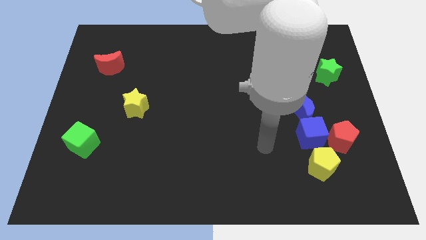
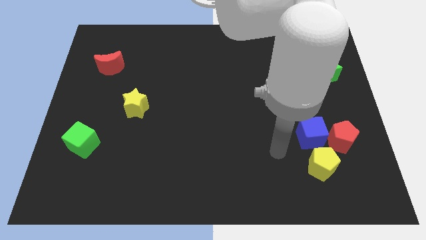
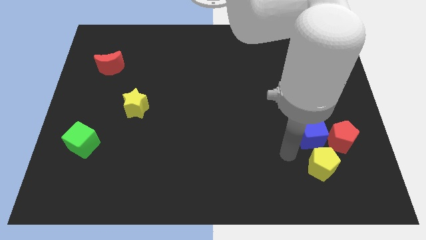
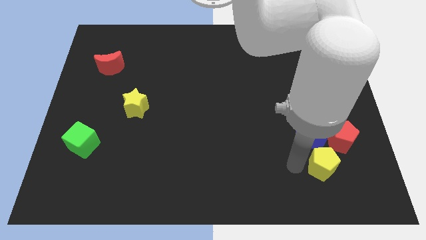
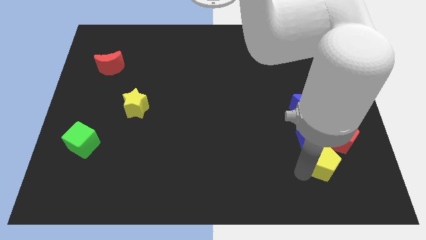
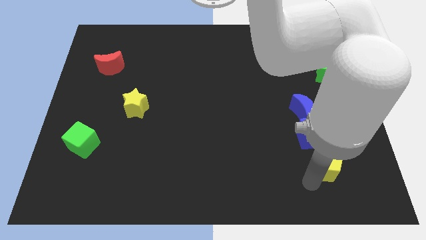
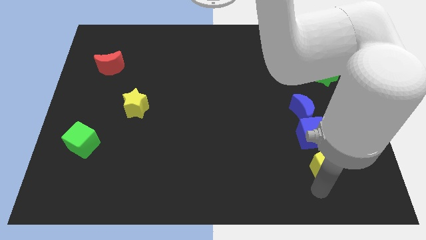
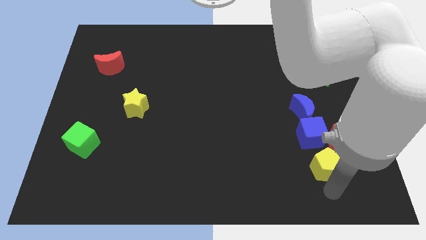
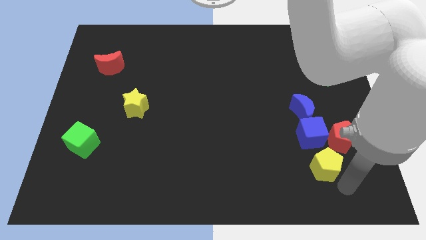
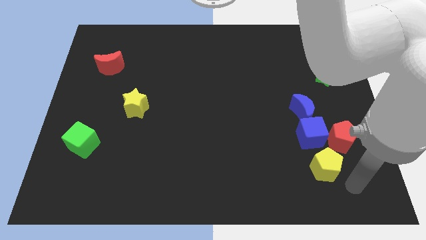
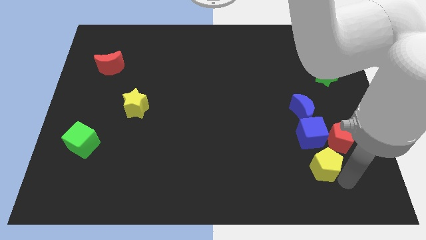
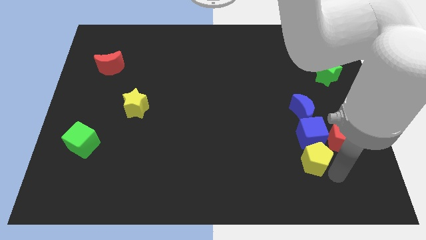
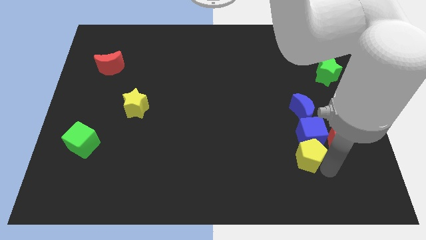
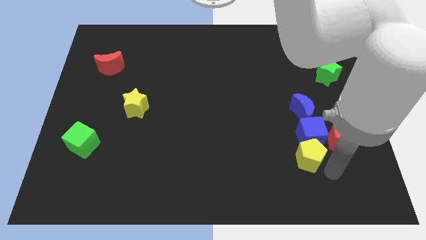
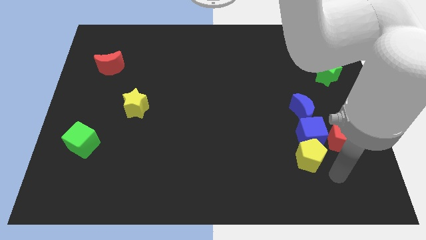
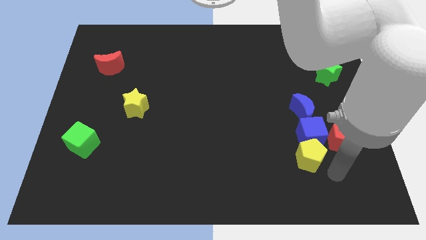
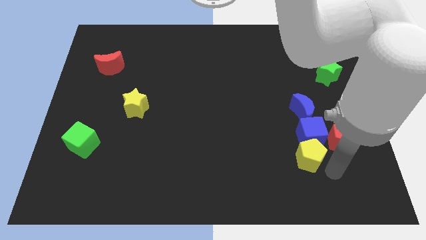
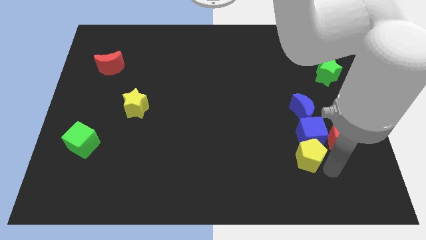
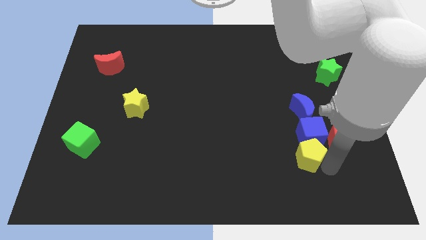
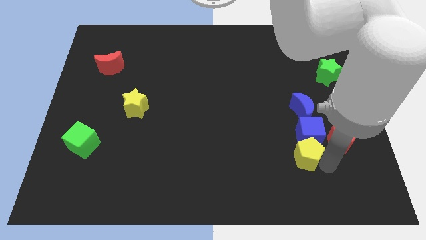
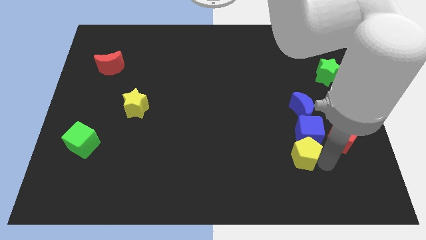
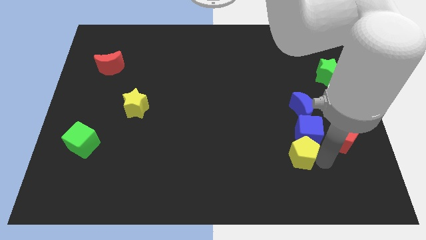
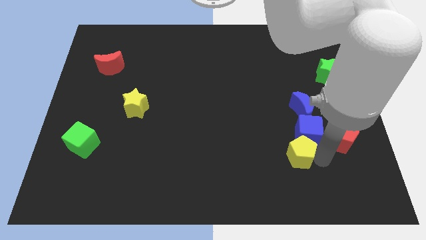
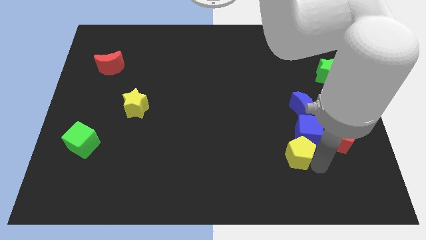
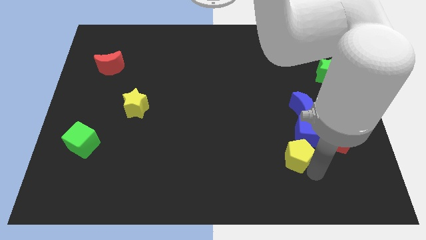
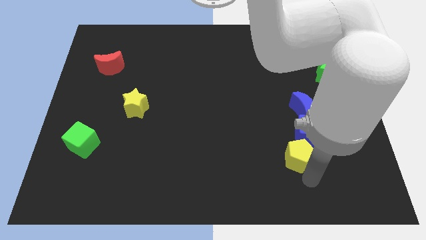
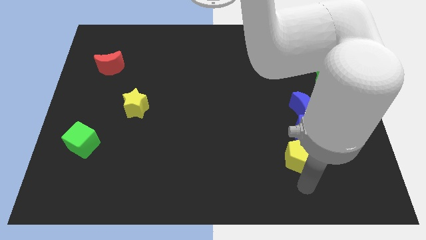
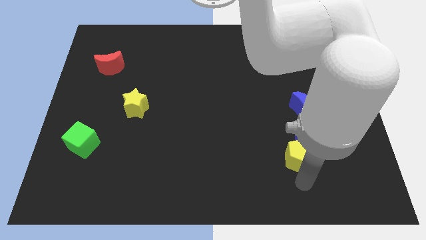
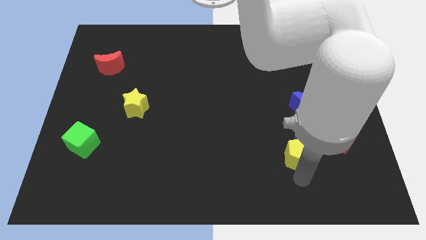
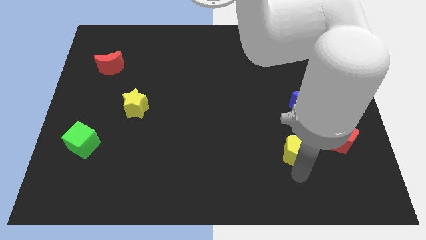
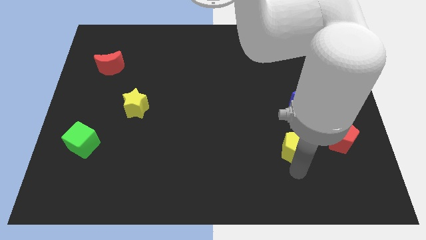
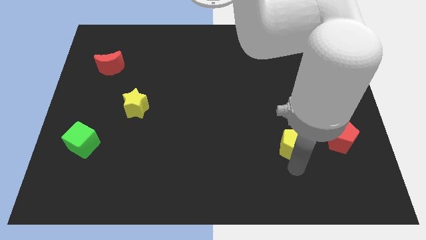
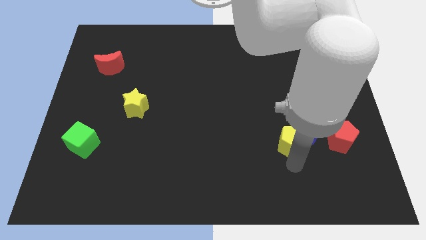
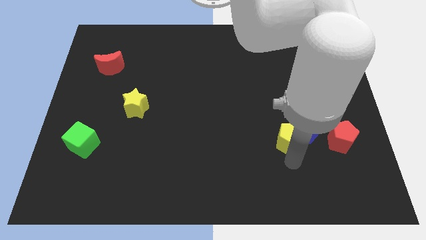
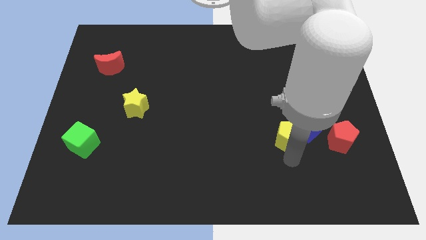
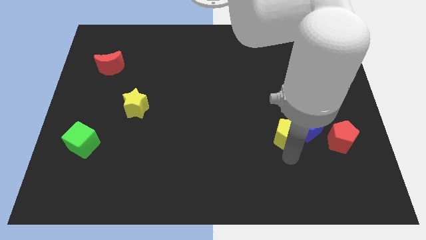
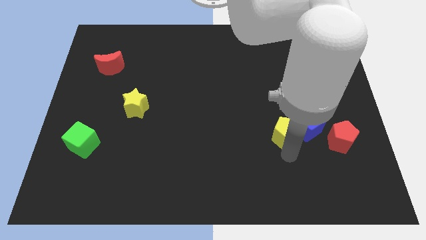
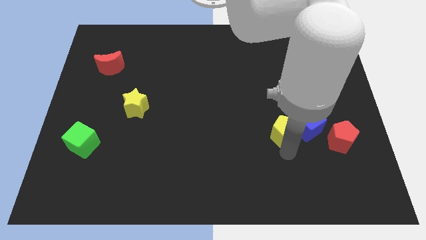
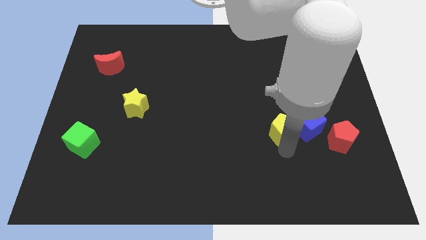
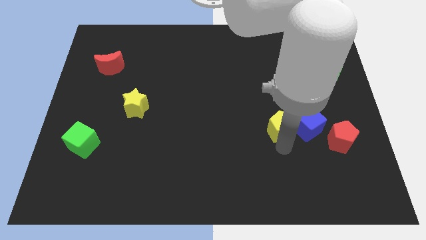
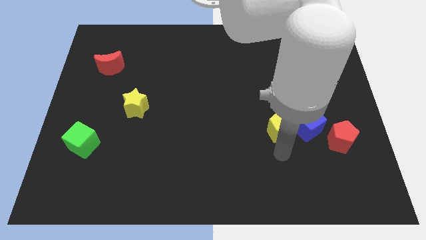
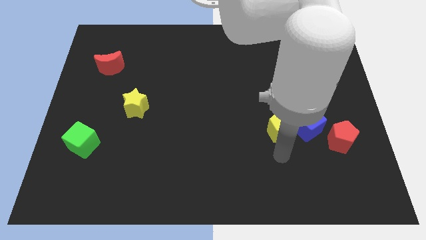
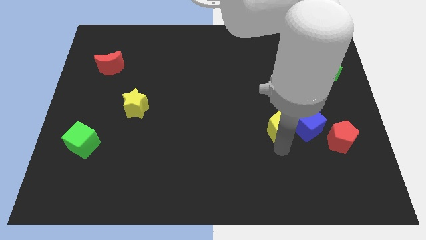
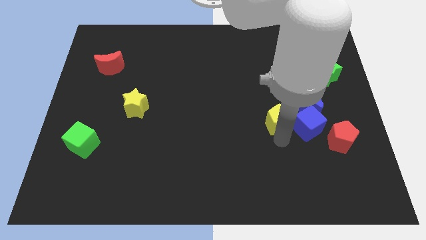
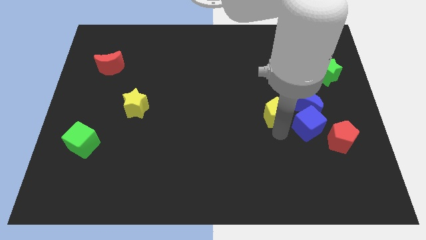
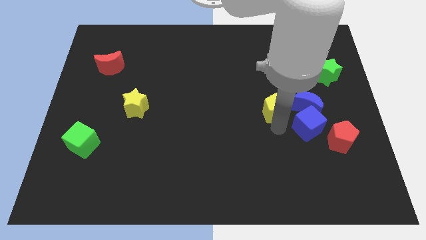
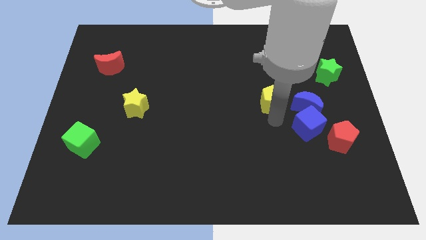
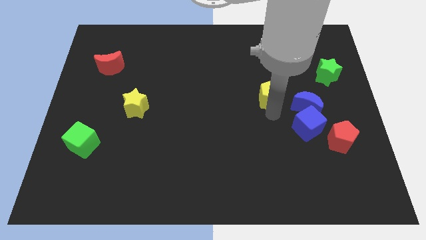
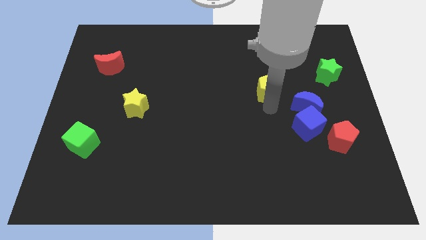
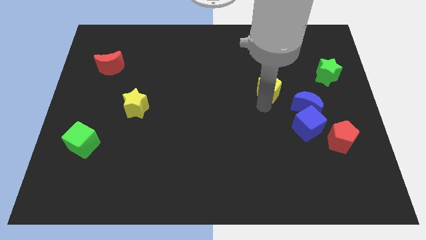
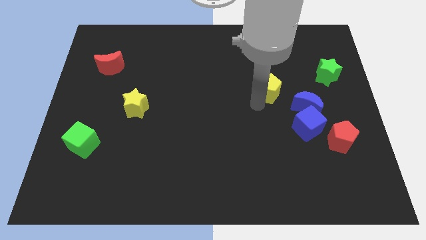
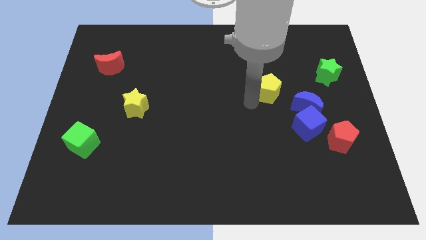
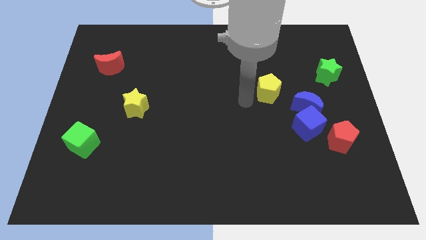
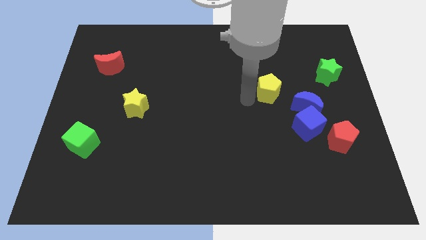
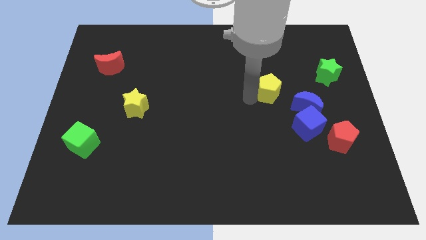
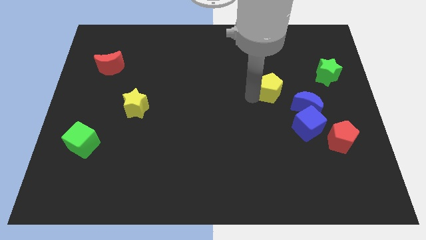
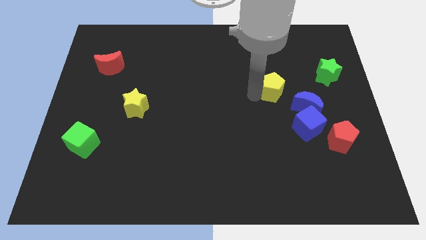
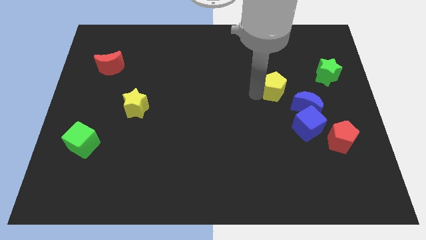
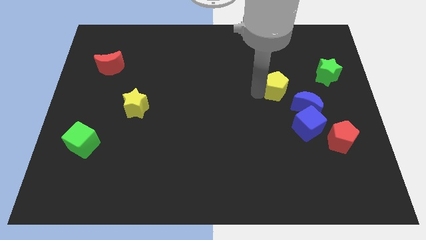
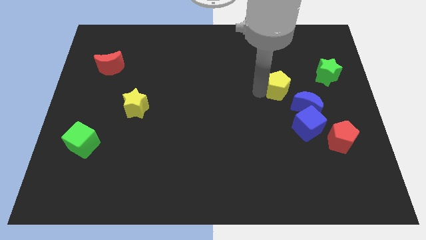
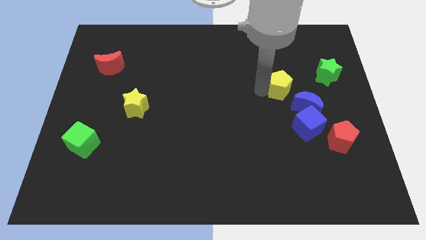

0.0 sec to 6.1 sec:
put the yellow pentagon to the left of the green star

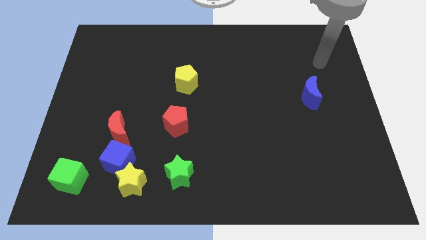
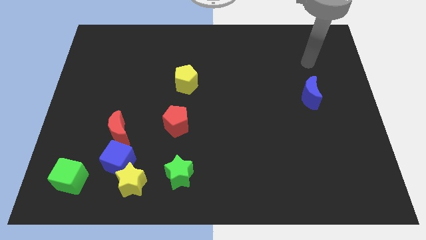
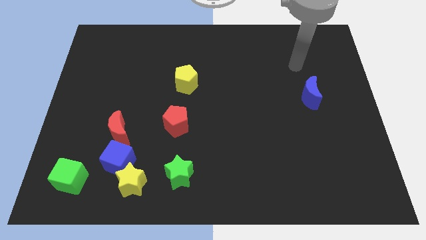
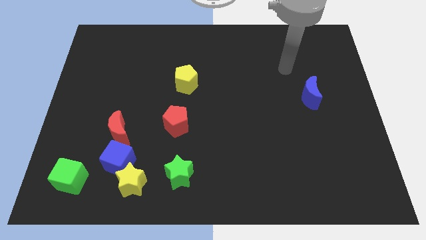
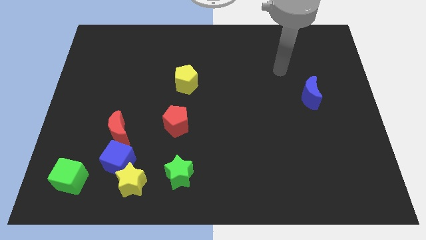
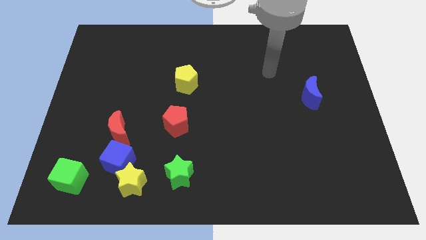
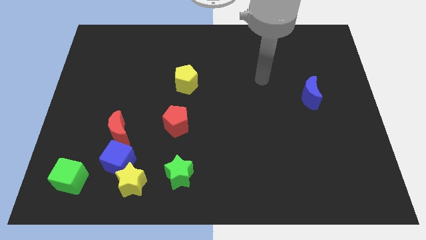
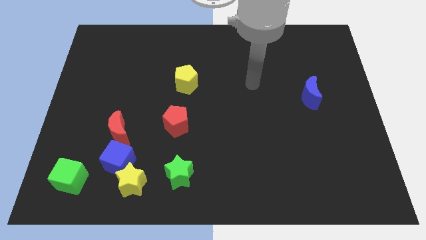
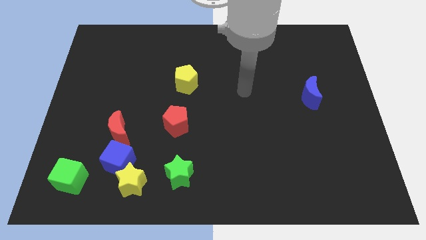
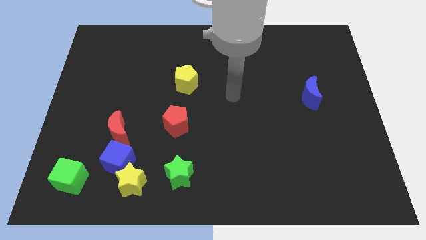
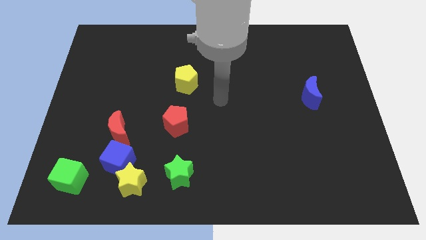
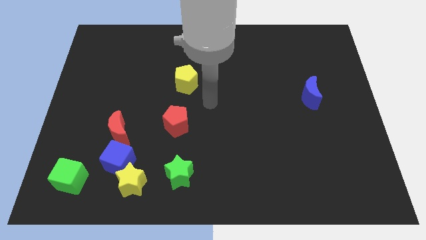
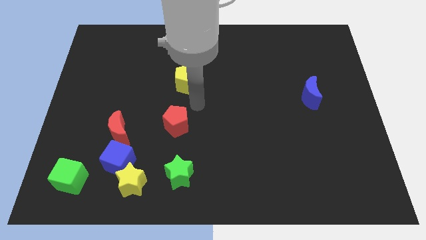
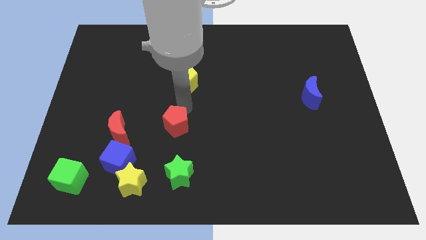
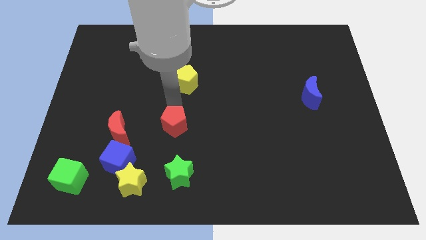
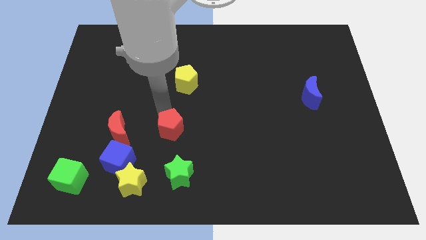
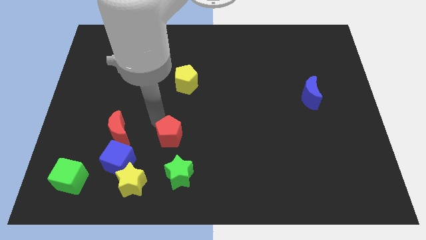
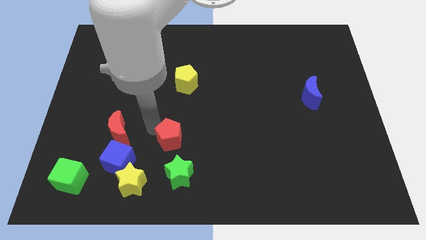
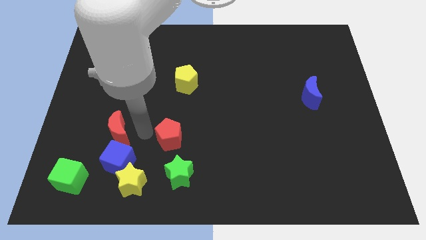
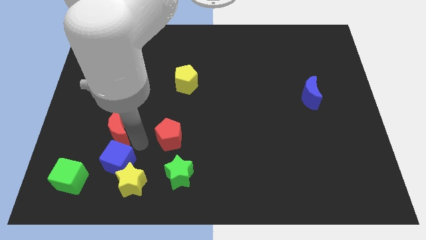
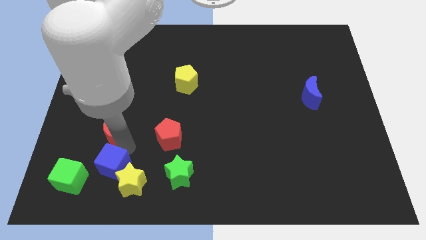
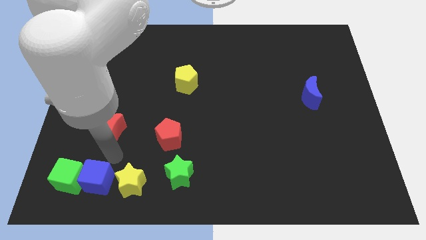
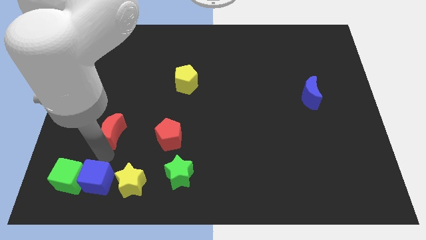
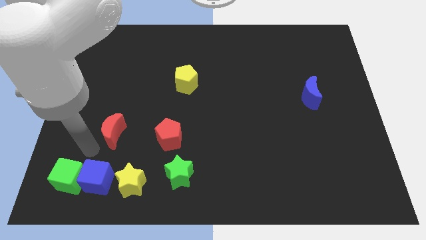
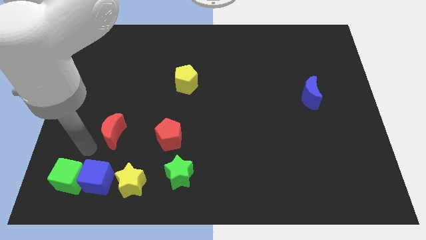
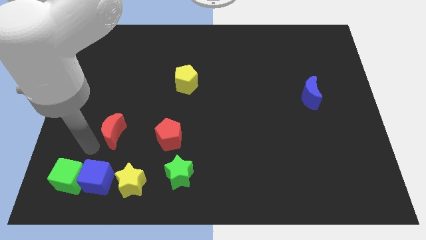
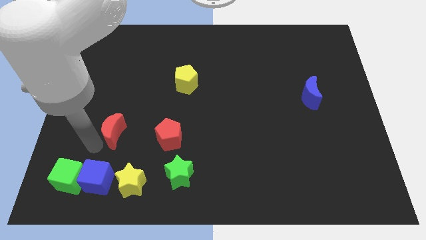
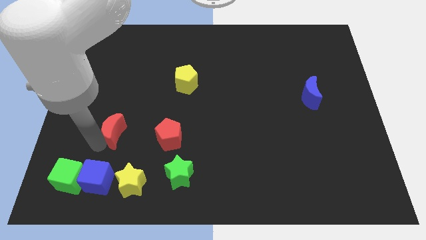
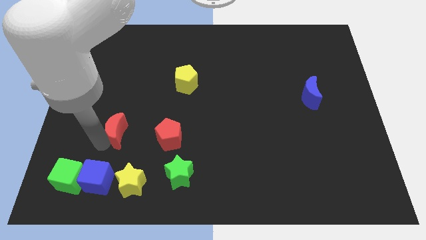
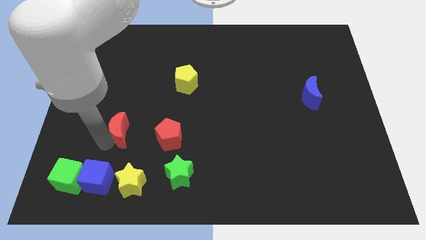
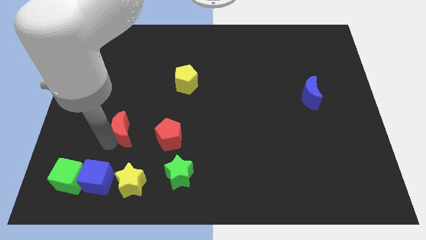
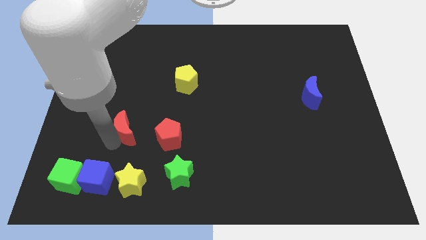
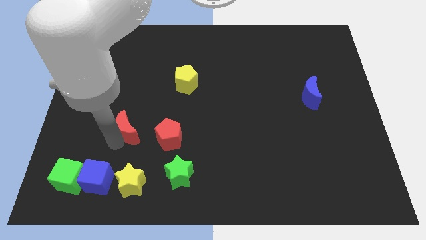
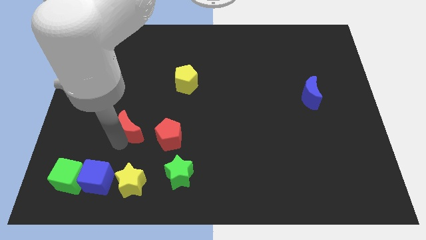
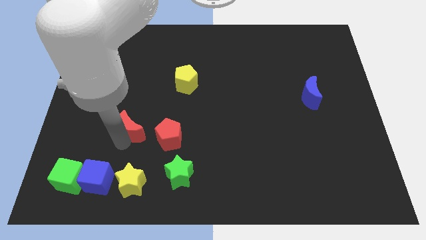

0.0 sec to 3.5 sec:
move the red moon diagonally up and to the left of the red pentagon
